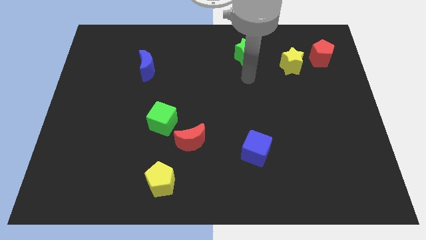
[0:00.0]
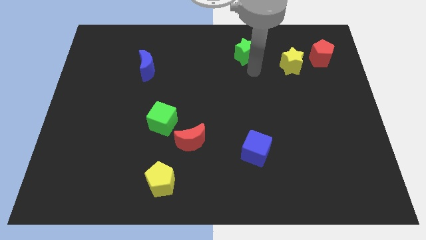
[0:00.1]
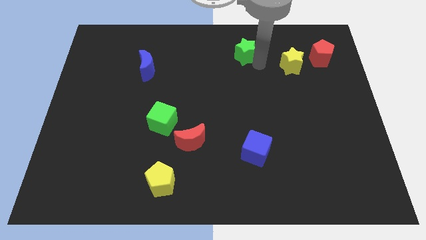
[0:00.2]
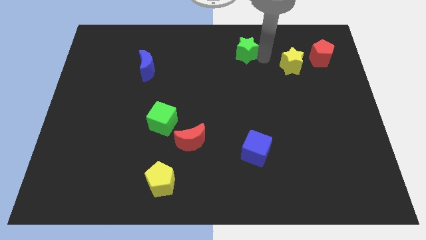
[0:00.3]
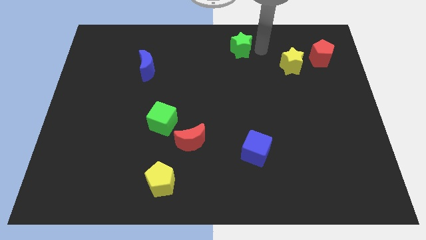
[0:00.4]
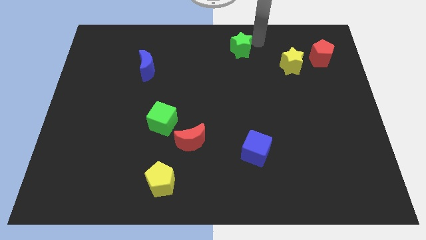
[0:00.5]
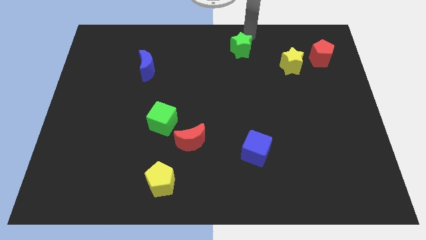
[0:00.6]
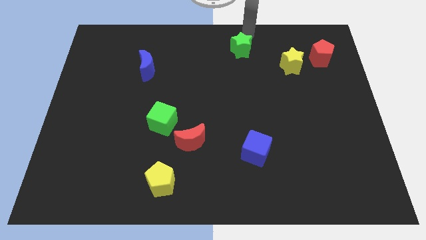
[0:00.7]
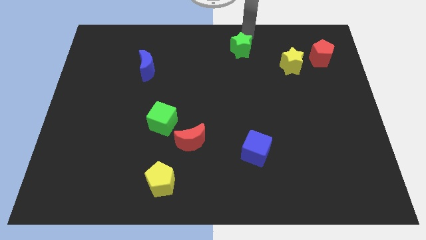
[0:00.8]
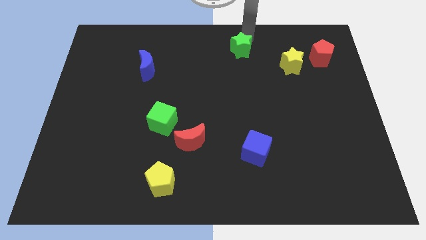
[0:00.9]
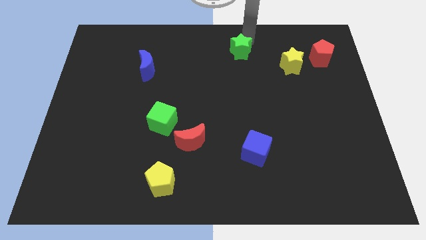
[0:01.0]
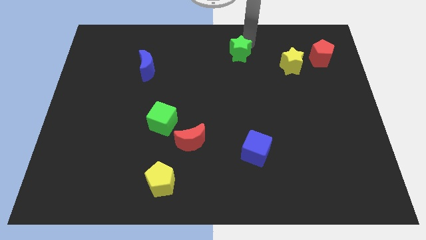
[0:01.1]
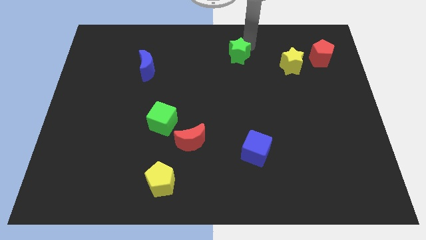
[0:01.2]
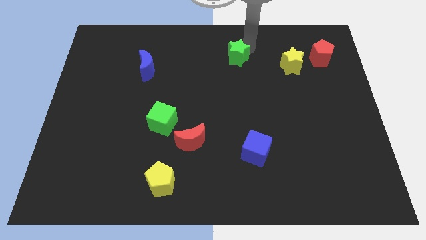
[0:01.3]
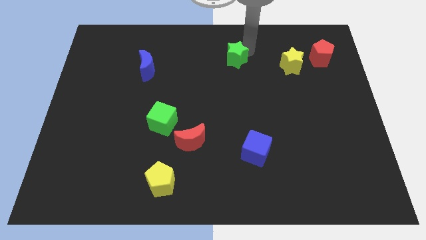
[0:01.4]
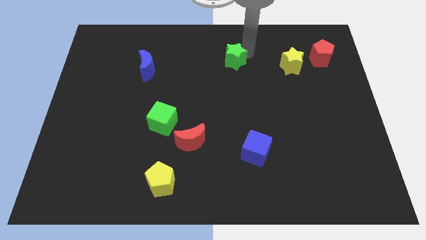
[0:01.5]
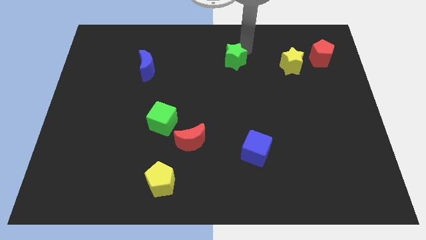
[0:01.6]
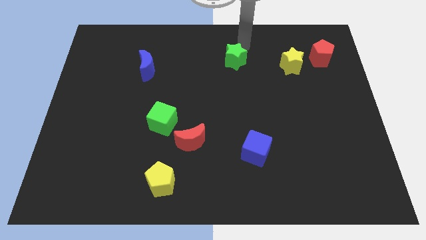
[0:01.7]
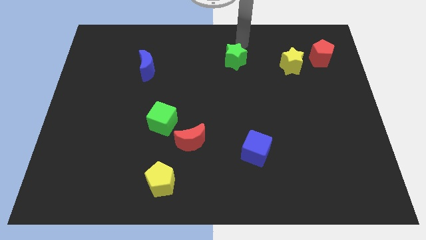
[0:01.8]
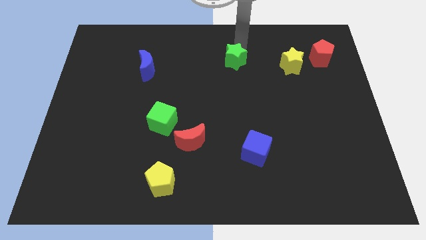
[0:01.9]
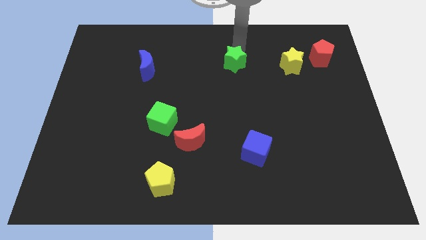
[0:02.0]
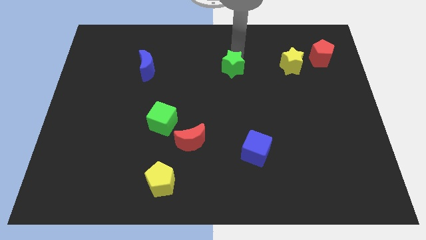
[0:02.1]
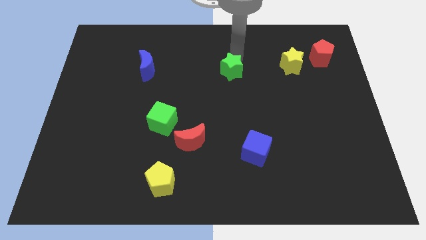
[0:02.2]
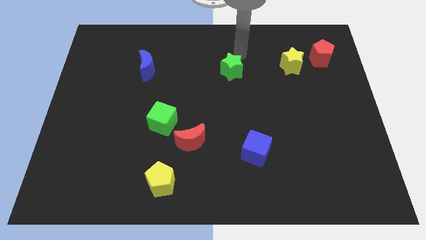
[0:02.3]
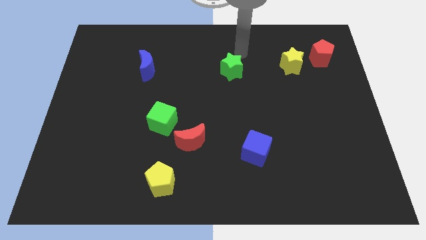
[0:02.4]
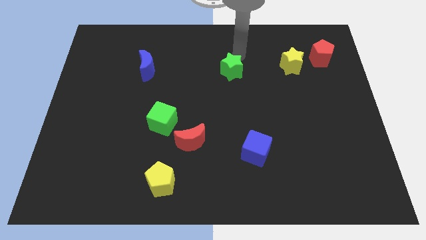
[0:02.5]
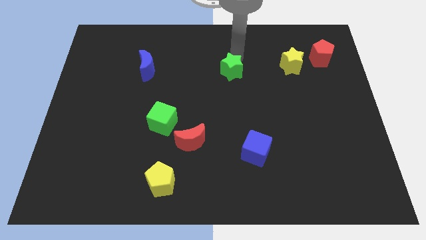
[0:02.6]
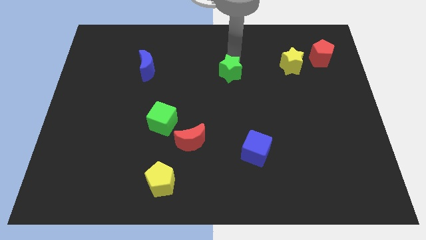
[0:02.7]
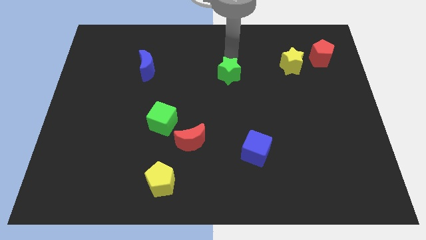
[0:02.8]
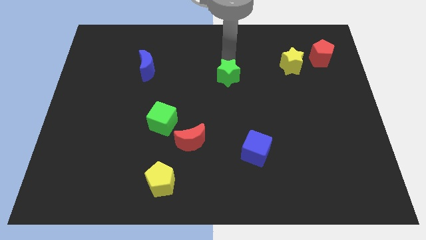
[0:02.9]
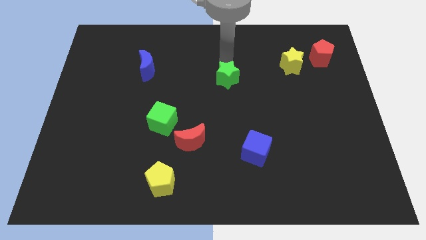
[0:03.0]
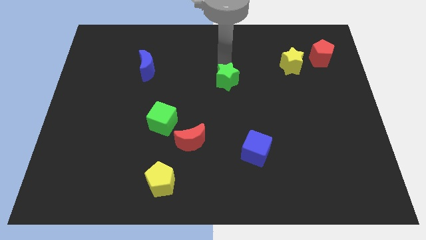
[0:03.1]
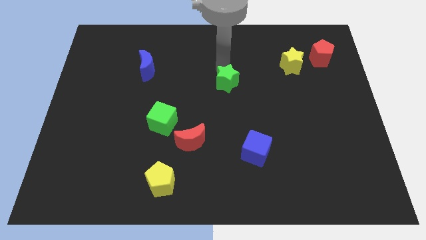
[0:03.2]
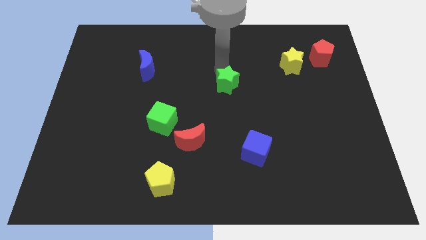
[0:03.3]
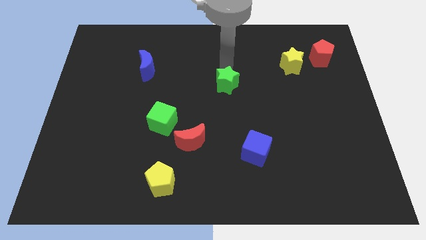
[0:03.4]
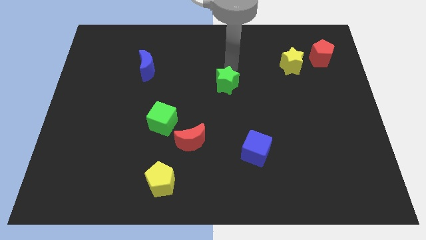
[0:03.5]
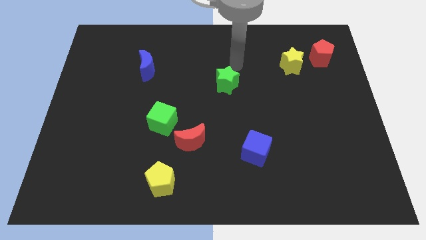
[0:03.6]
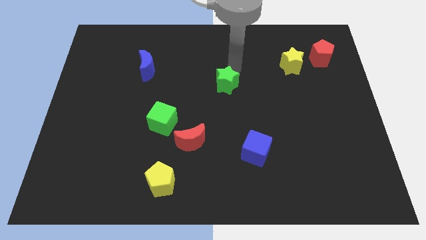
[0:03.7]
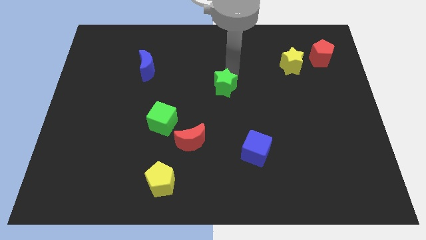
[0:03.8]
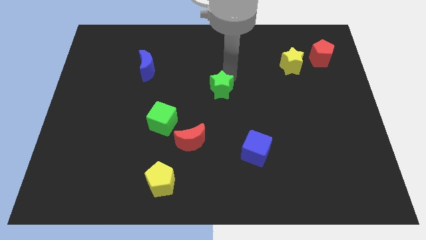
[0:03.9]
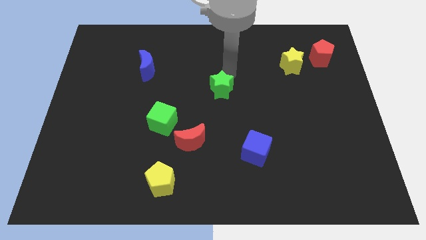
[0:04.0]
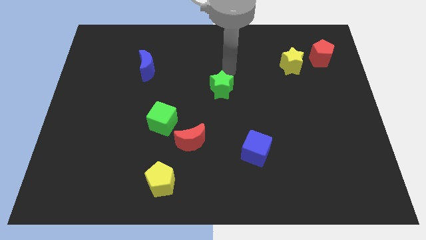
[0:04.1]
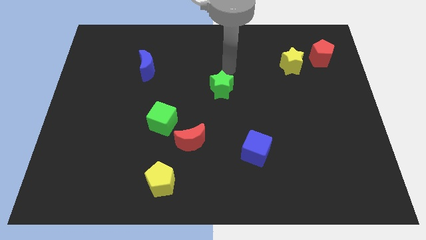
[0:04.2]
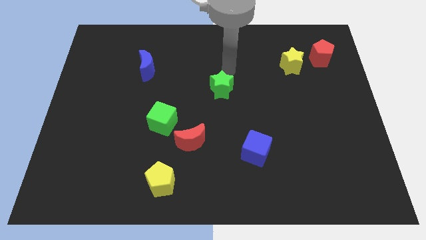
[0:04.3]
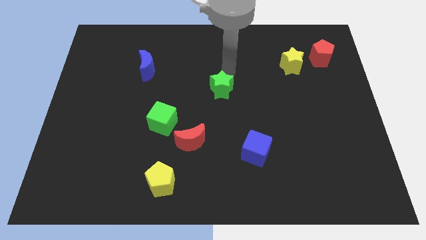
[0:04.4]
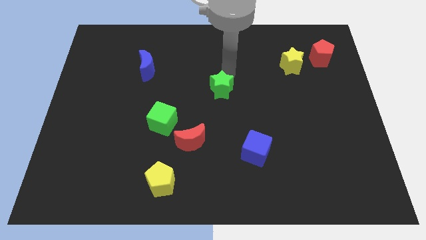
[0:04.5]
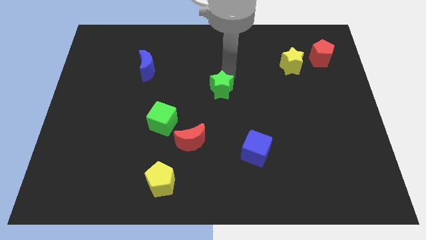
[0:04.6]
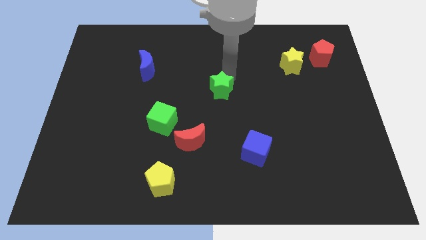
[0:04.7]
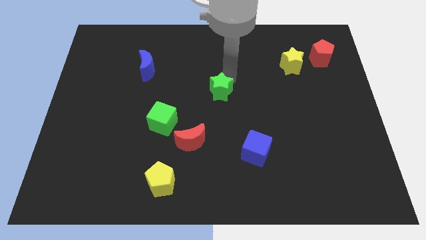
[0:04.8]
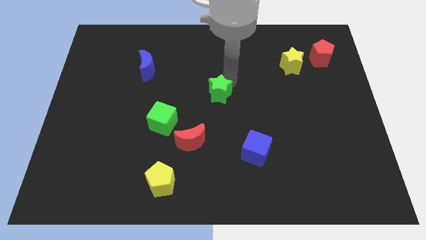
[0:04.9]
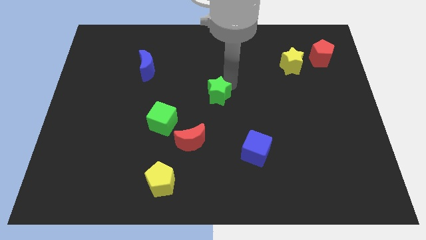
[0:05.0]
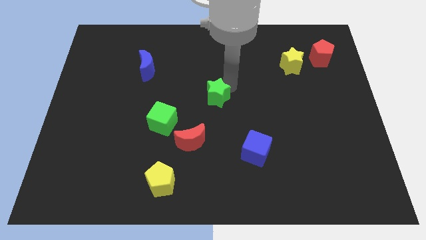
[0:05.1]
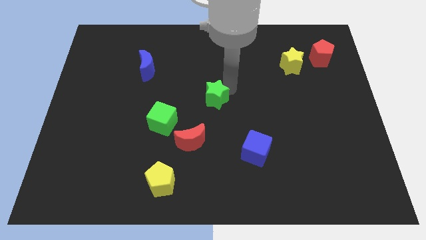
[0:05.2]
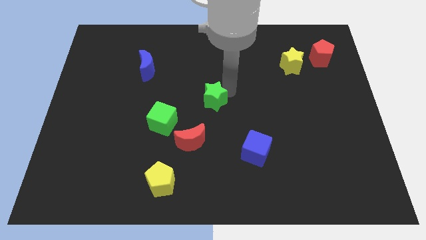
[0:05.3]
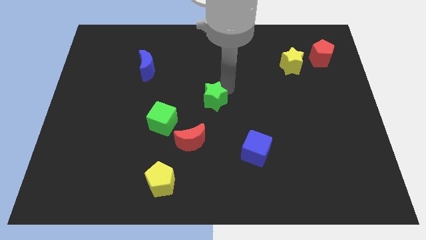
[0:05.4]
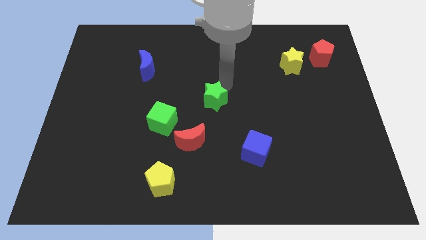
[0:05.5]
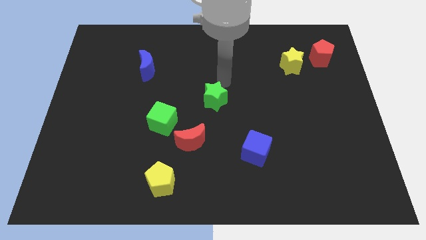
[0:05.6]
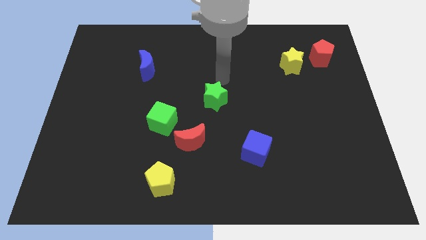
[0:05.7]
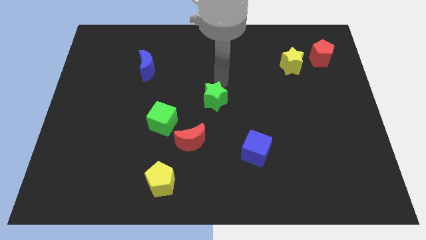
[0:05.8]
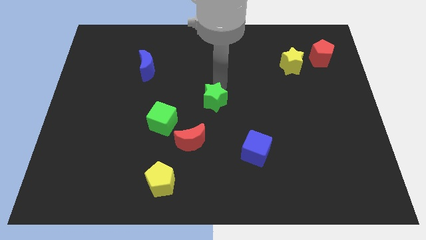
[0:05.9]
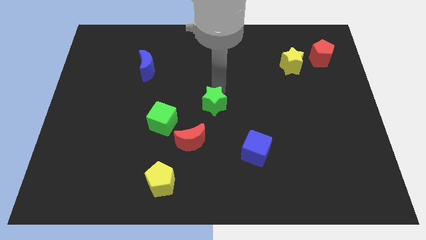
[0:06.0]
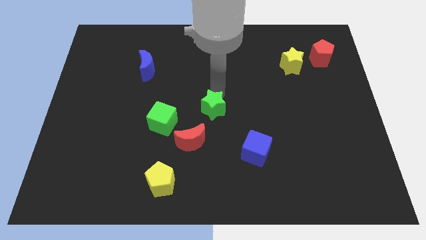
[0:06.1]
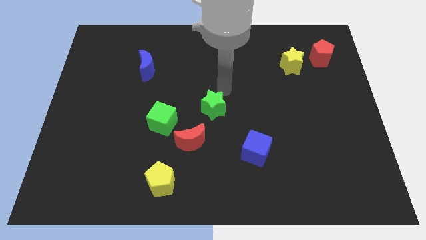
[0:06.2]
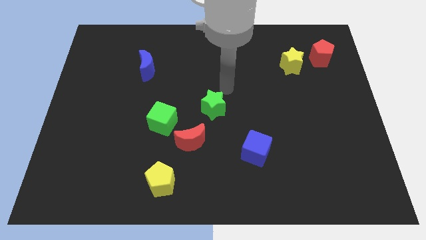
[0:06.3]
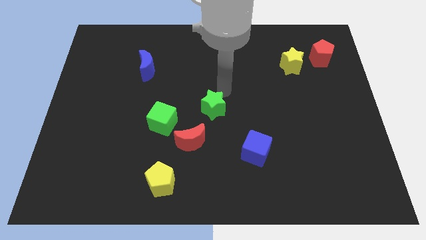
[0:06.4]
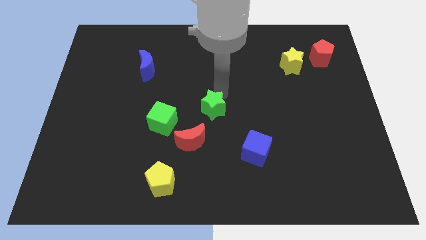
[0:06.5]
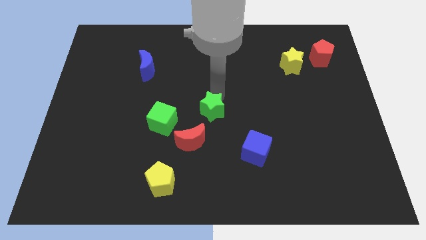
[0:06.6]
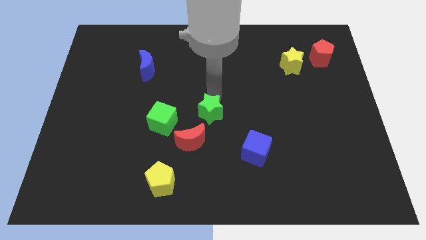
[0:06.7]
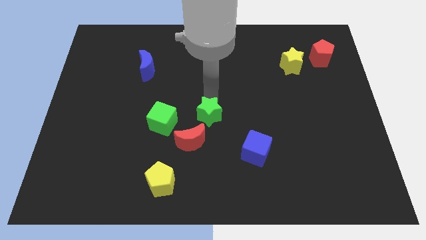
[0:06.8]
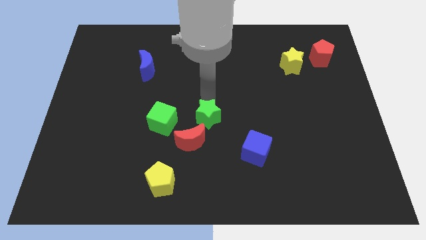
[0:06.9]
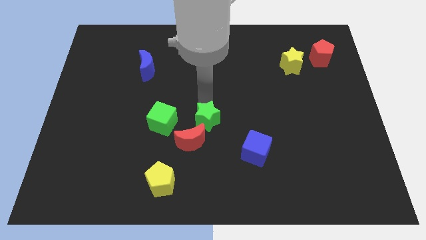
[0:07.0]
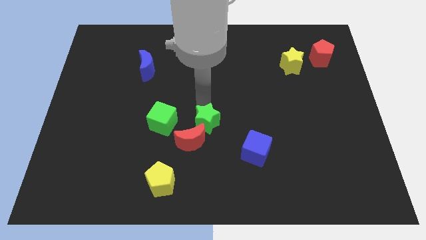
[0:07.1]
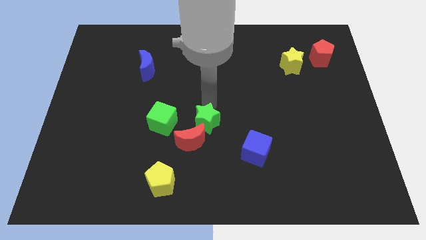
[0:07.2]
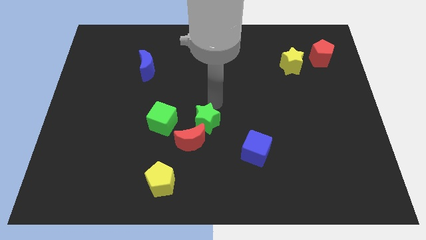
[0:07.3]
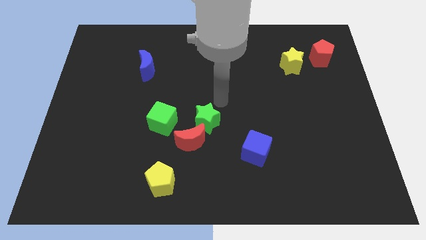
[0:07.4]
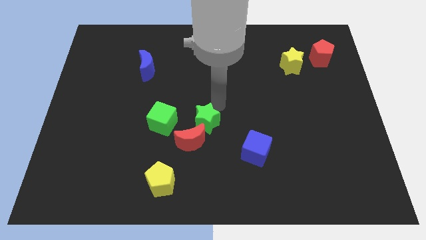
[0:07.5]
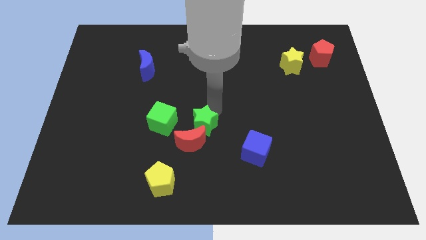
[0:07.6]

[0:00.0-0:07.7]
move the green star towards the red moon

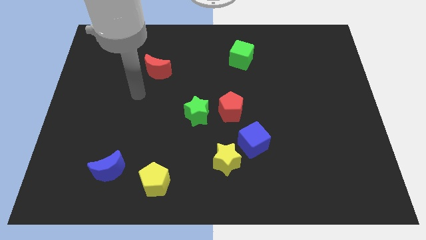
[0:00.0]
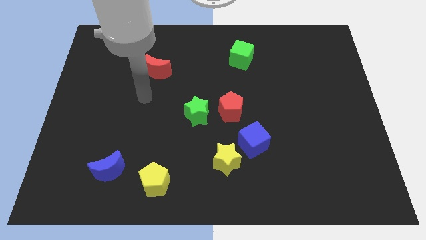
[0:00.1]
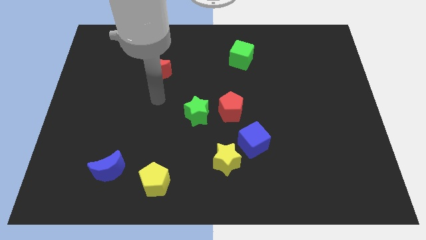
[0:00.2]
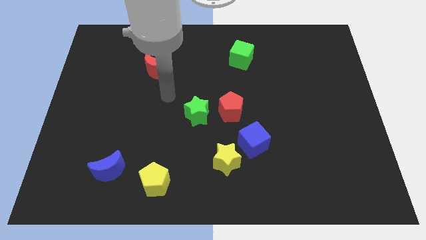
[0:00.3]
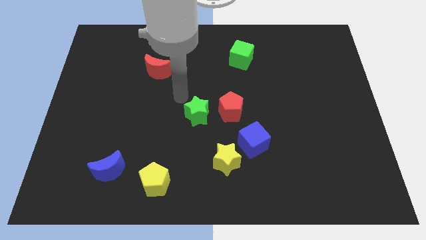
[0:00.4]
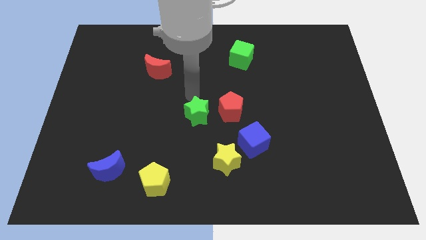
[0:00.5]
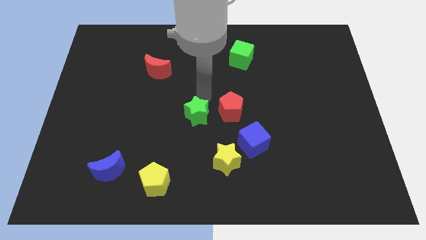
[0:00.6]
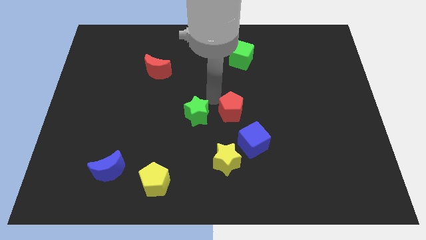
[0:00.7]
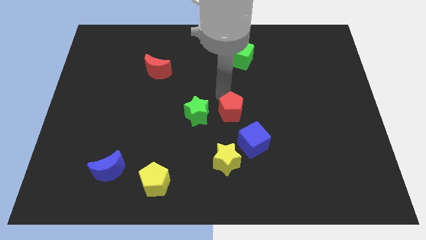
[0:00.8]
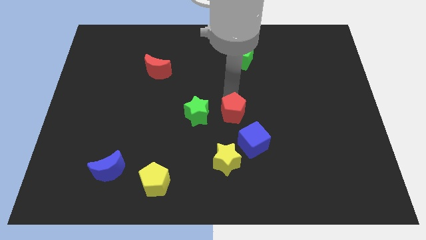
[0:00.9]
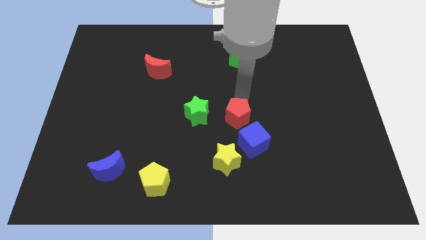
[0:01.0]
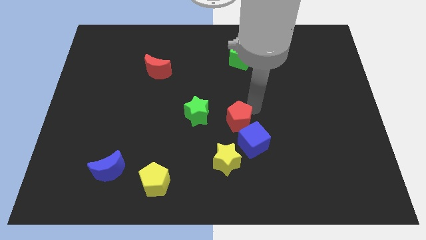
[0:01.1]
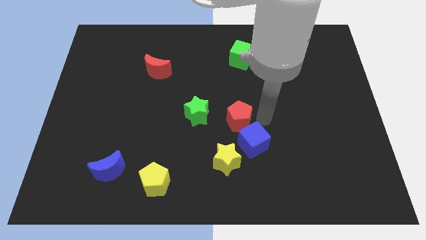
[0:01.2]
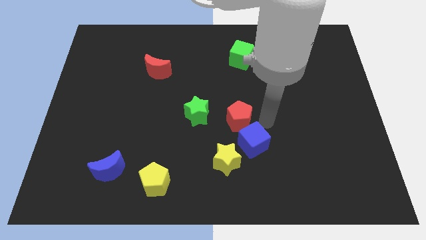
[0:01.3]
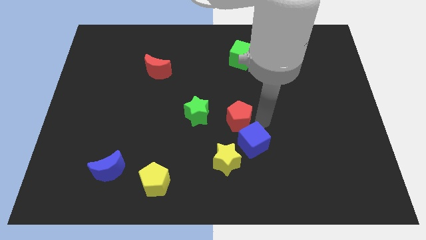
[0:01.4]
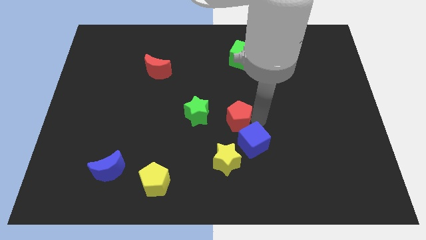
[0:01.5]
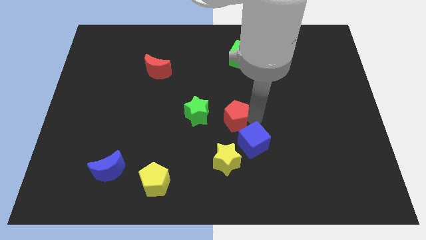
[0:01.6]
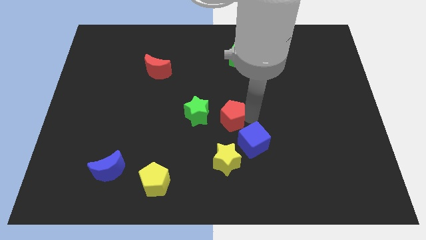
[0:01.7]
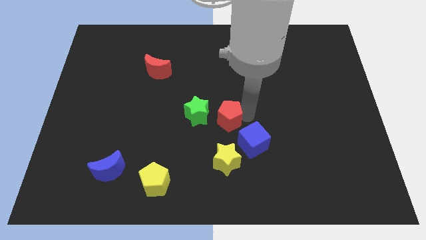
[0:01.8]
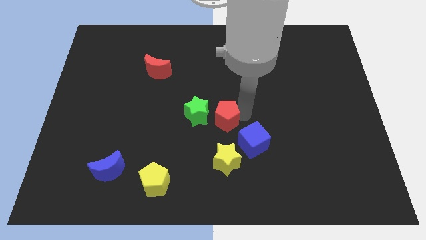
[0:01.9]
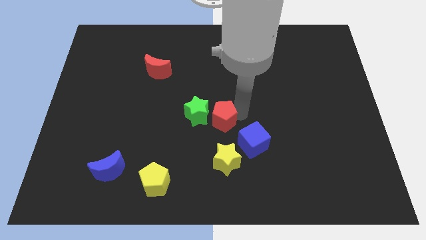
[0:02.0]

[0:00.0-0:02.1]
push the red pentagon next to the green star
